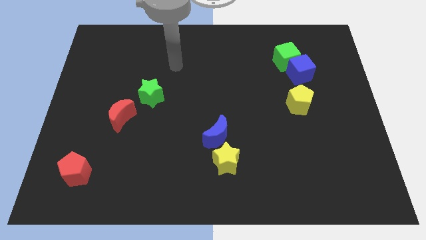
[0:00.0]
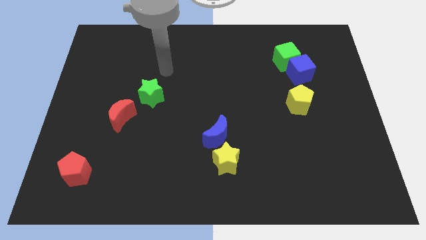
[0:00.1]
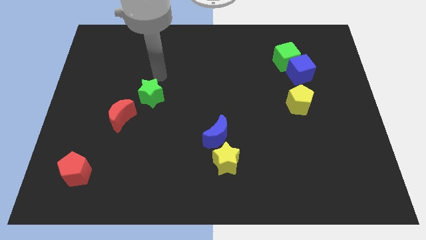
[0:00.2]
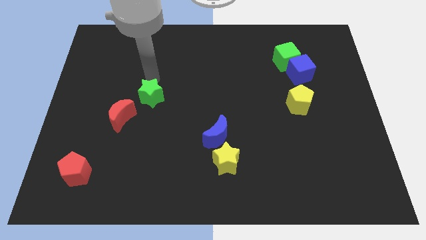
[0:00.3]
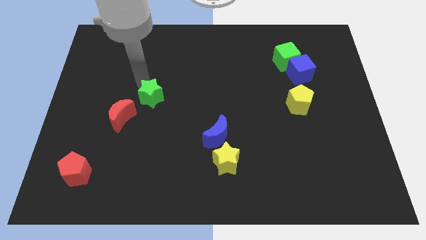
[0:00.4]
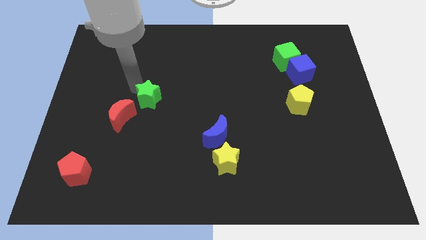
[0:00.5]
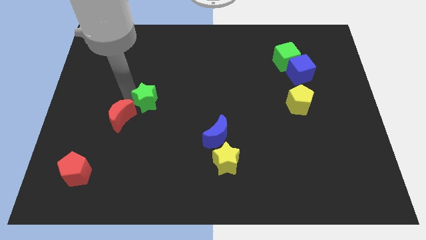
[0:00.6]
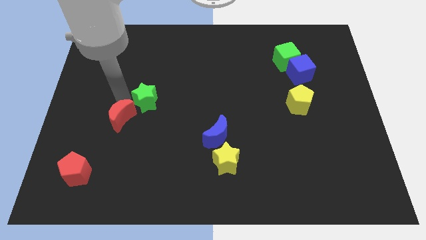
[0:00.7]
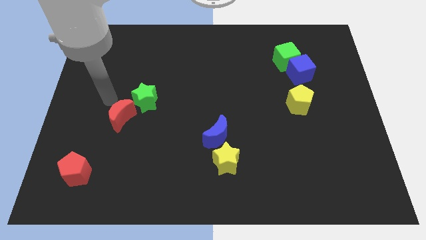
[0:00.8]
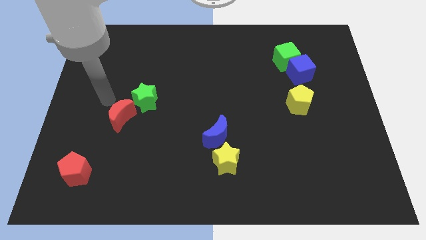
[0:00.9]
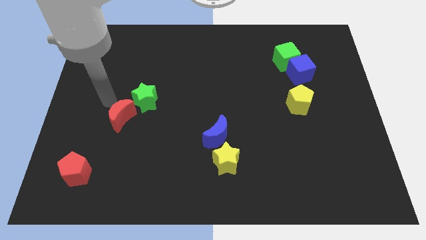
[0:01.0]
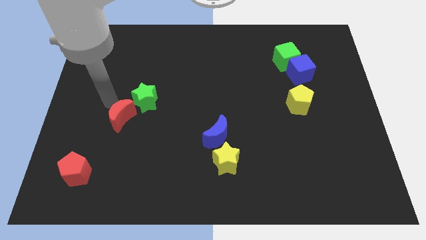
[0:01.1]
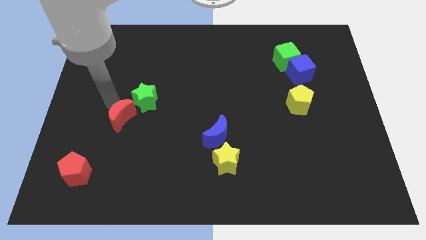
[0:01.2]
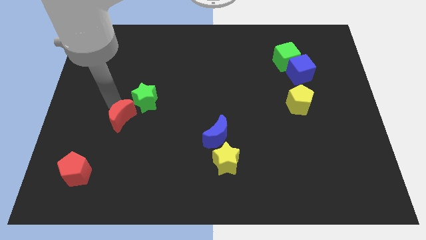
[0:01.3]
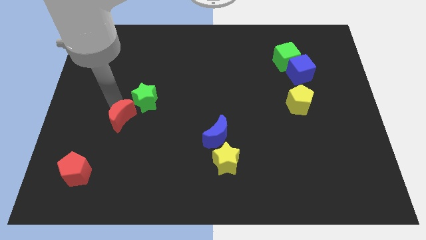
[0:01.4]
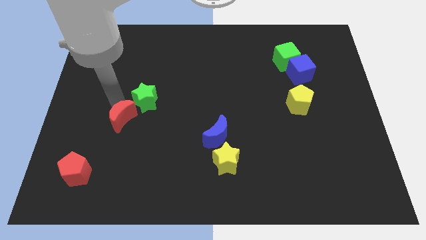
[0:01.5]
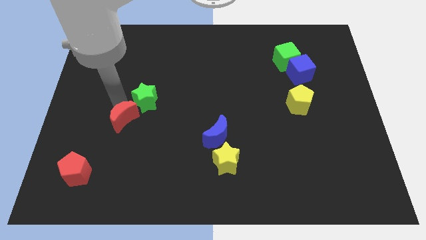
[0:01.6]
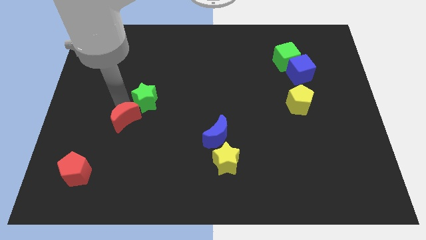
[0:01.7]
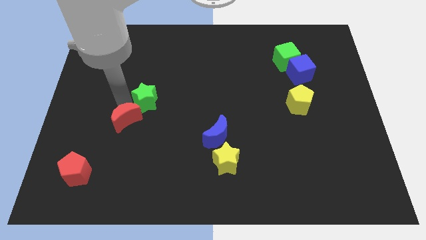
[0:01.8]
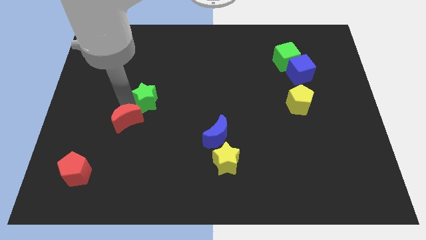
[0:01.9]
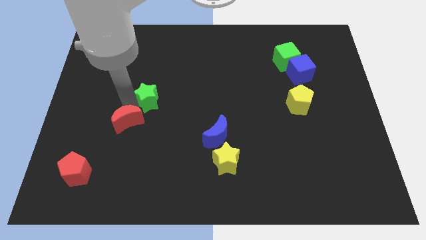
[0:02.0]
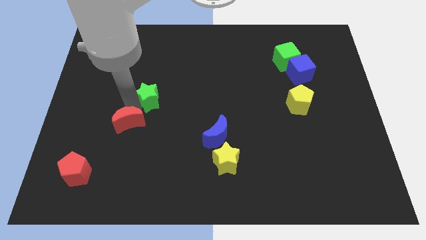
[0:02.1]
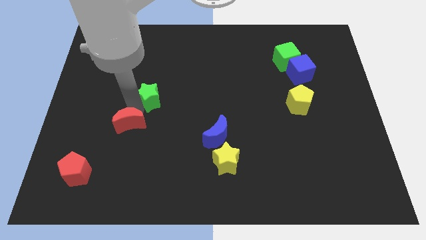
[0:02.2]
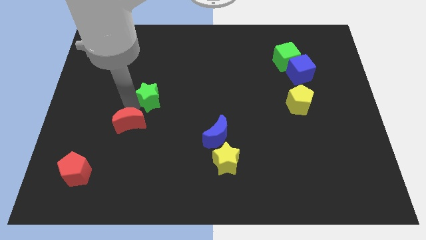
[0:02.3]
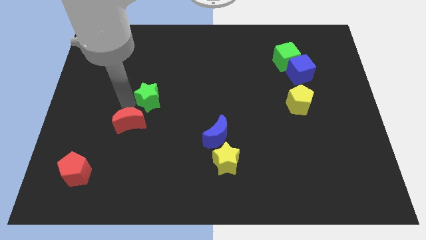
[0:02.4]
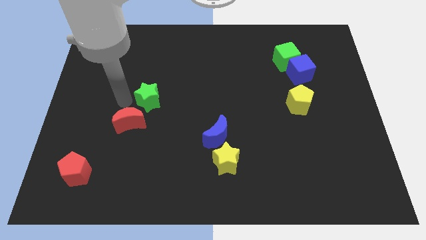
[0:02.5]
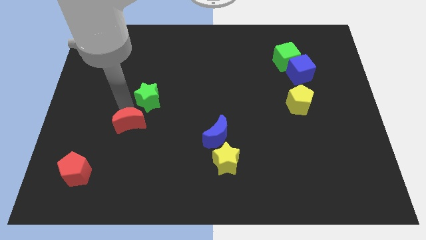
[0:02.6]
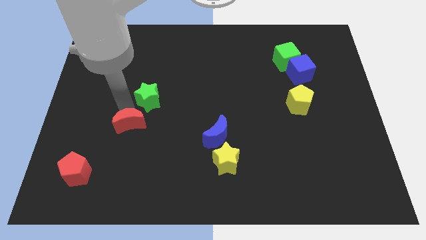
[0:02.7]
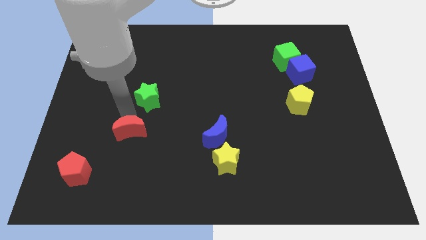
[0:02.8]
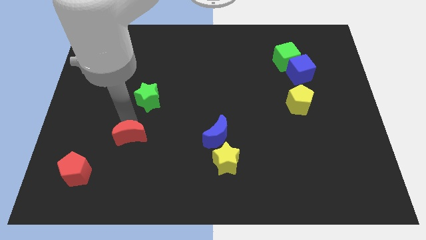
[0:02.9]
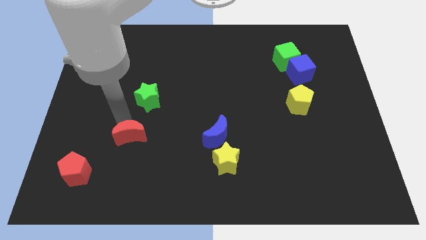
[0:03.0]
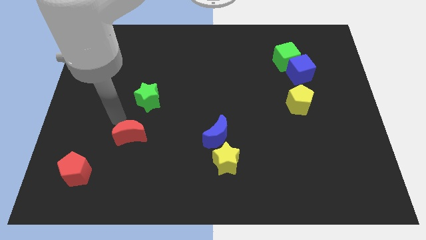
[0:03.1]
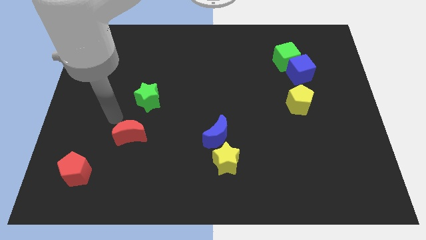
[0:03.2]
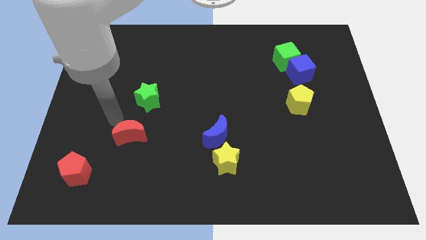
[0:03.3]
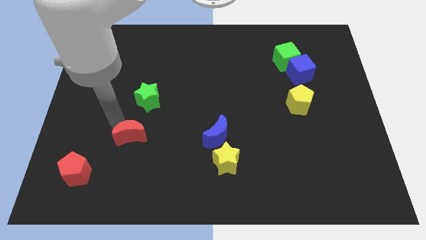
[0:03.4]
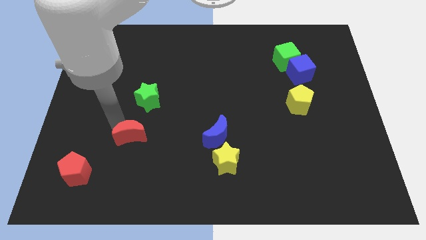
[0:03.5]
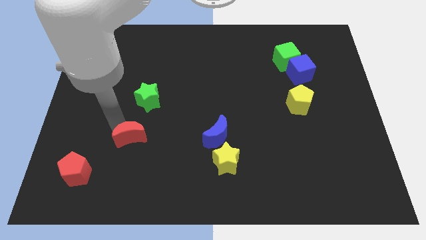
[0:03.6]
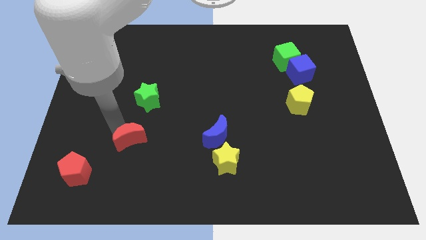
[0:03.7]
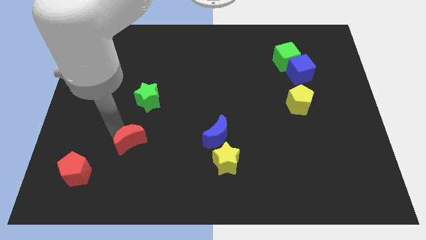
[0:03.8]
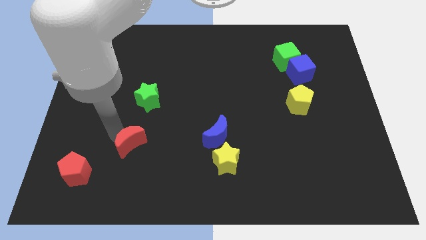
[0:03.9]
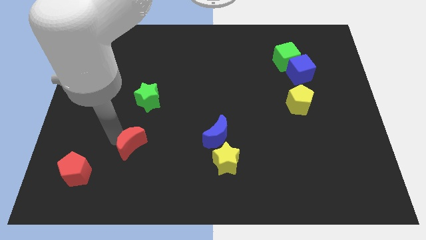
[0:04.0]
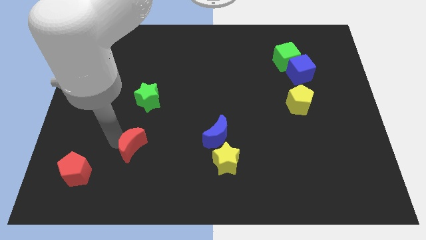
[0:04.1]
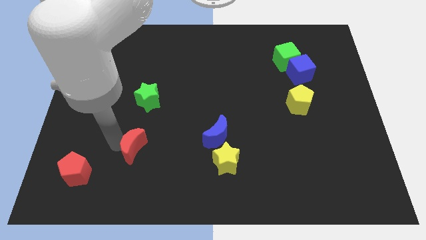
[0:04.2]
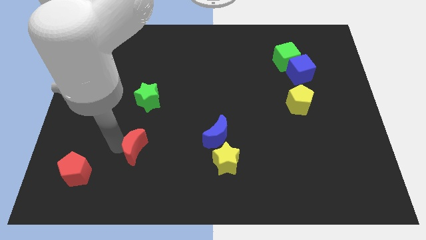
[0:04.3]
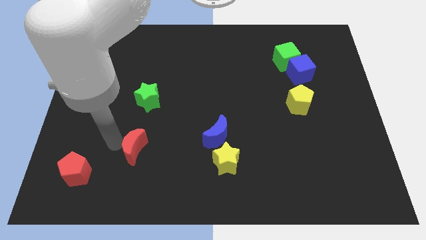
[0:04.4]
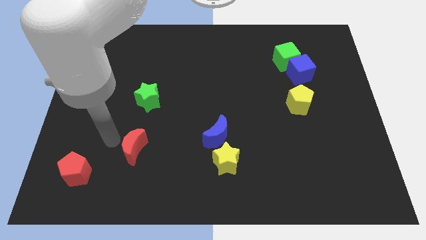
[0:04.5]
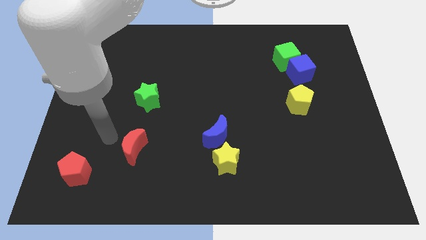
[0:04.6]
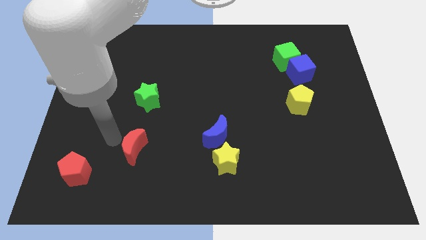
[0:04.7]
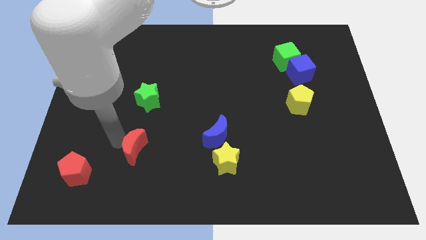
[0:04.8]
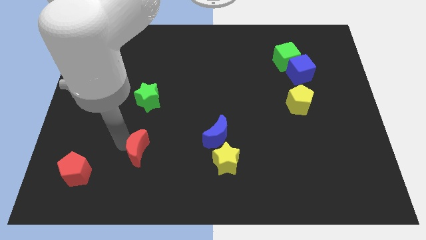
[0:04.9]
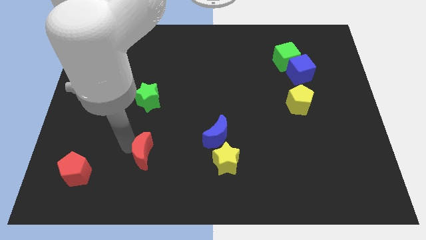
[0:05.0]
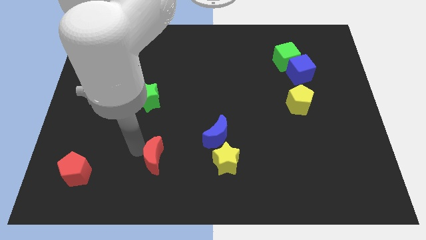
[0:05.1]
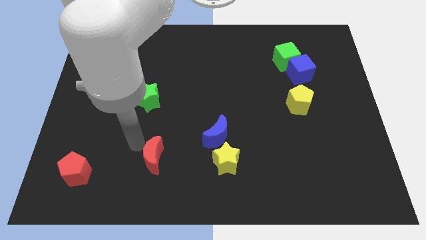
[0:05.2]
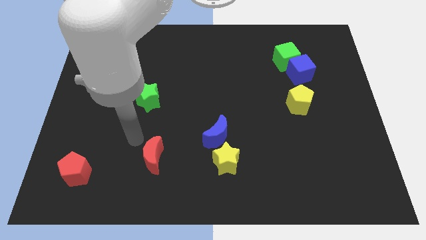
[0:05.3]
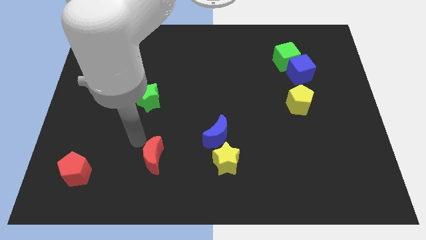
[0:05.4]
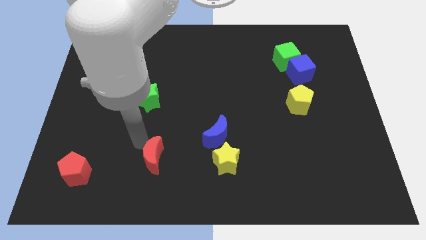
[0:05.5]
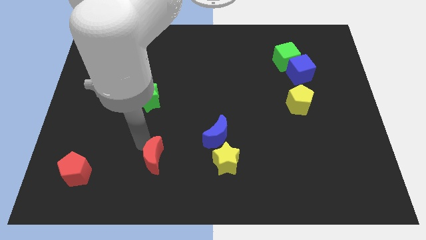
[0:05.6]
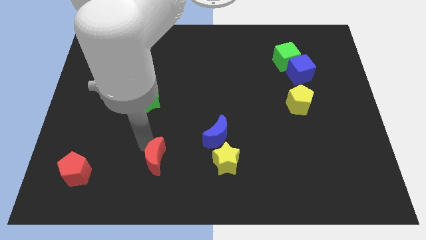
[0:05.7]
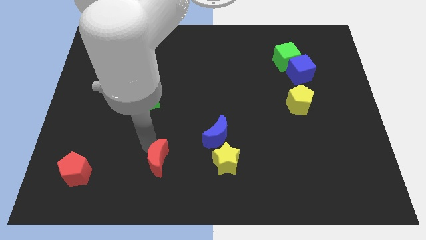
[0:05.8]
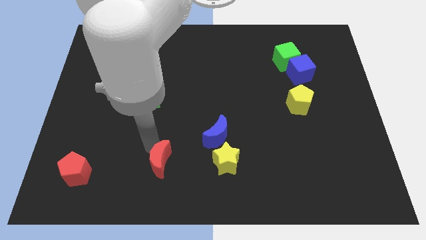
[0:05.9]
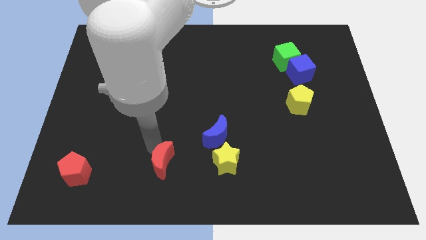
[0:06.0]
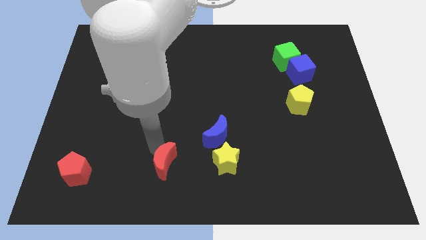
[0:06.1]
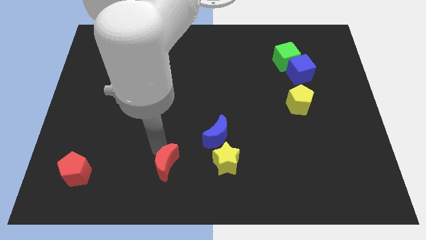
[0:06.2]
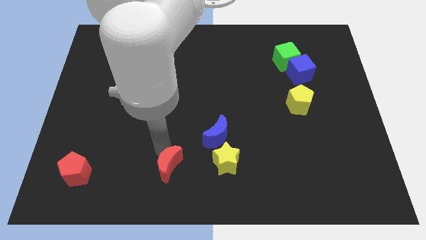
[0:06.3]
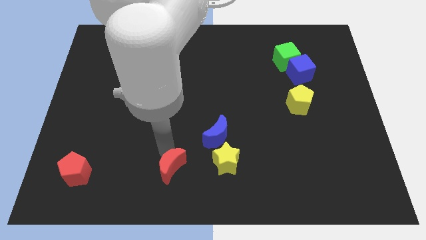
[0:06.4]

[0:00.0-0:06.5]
slide the red moon to the bottom side
